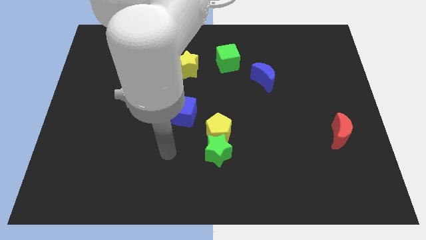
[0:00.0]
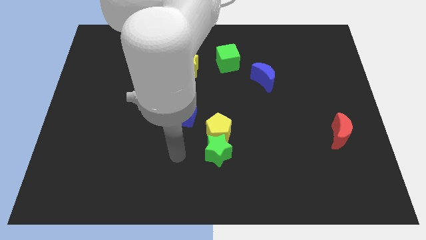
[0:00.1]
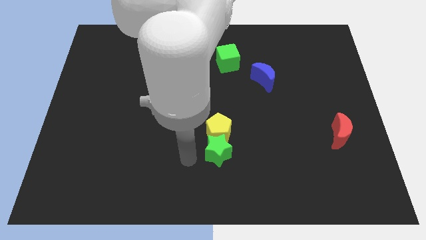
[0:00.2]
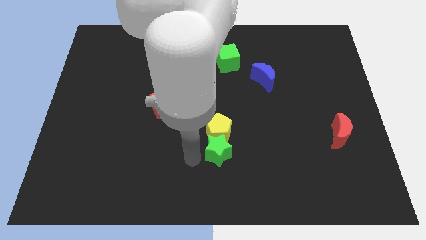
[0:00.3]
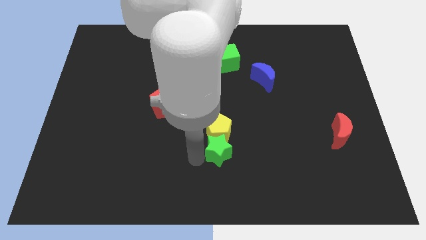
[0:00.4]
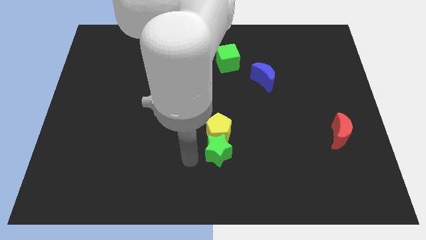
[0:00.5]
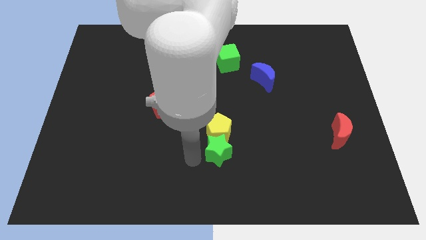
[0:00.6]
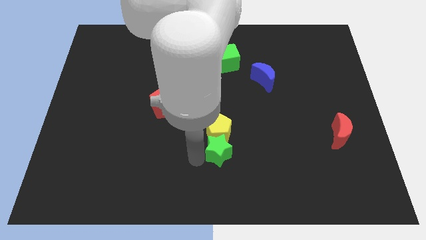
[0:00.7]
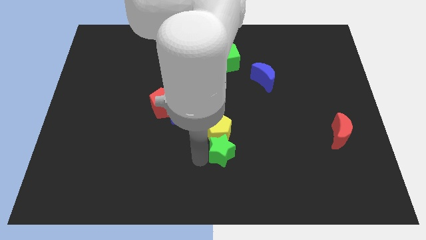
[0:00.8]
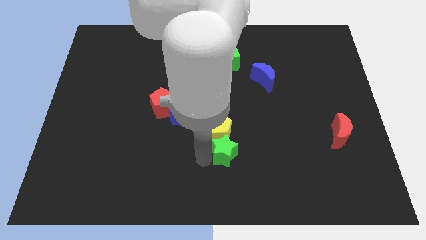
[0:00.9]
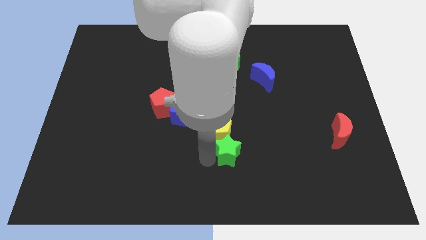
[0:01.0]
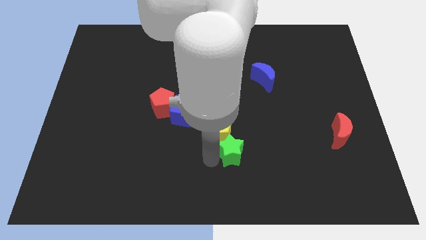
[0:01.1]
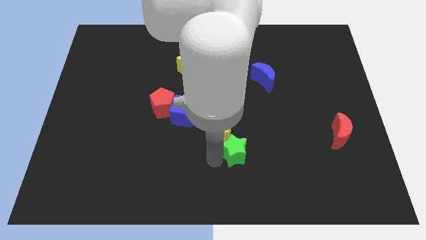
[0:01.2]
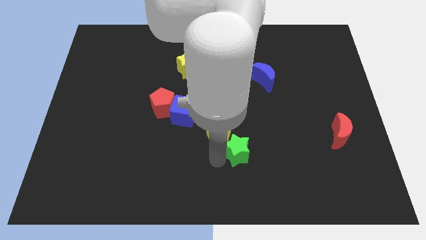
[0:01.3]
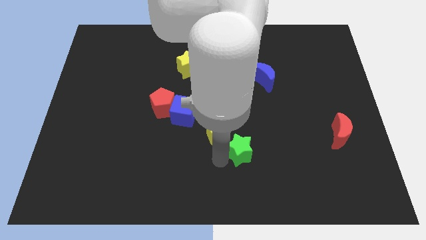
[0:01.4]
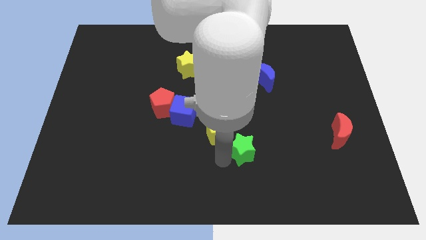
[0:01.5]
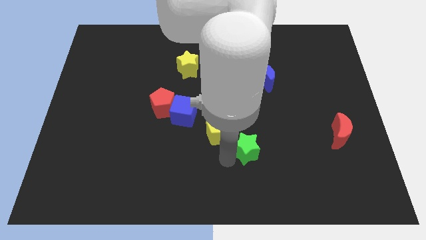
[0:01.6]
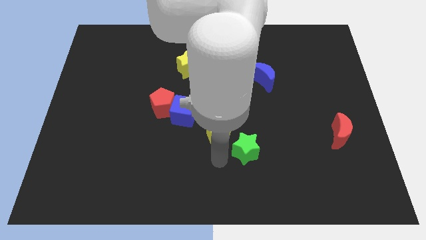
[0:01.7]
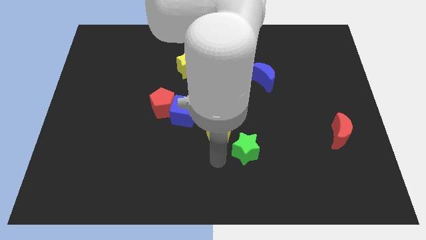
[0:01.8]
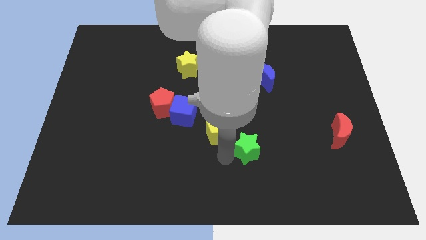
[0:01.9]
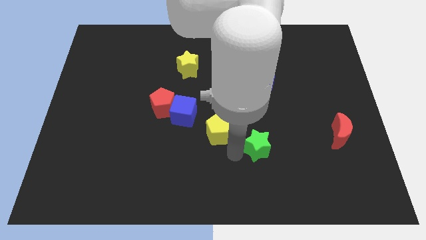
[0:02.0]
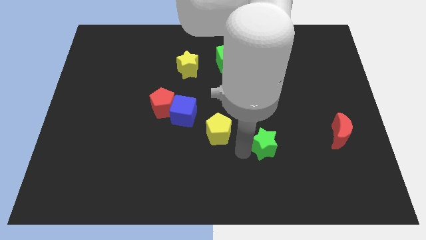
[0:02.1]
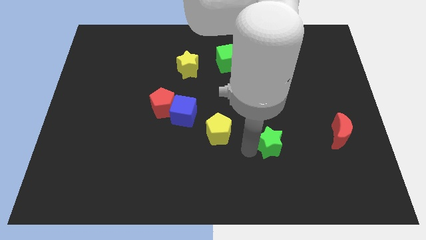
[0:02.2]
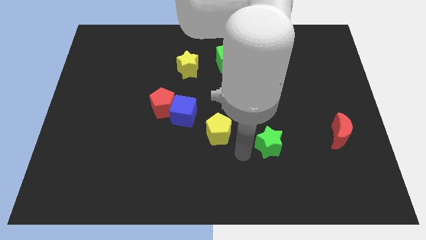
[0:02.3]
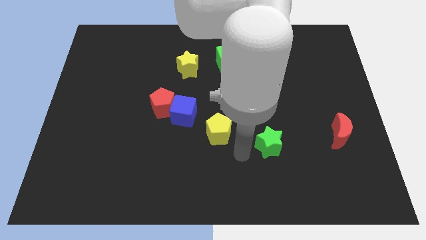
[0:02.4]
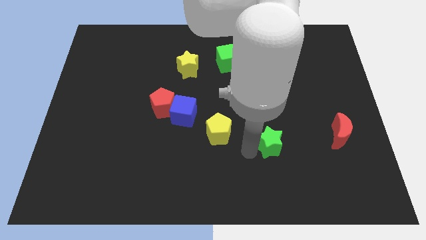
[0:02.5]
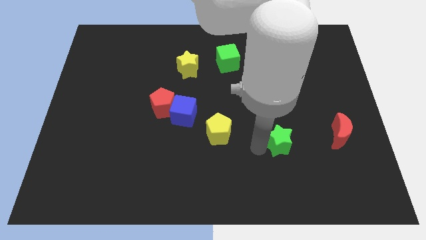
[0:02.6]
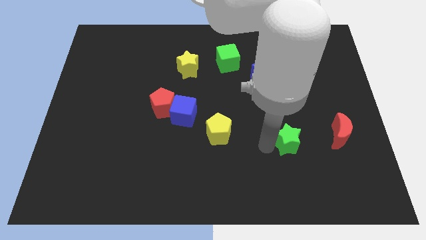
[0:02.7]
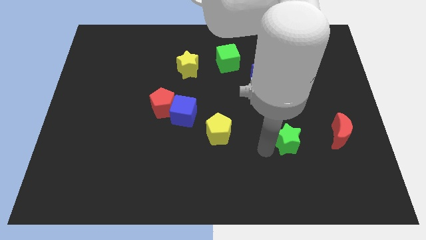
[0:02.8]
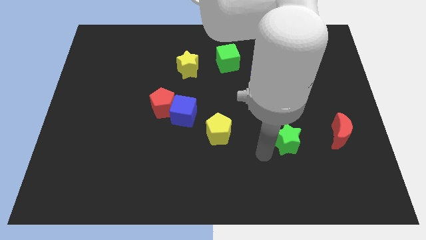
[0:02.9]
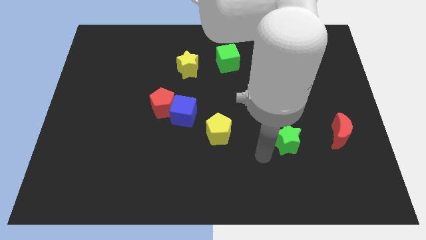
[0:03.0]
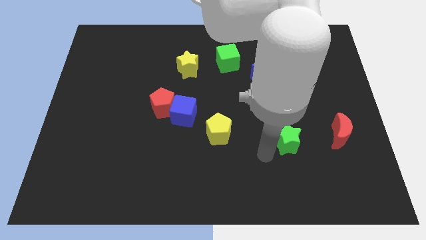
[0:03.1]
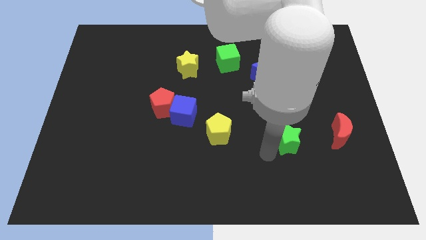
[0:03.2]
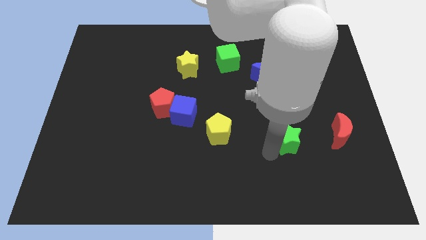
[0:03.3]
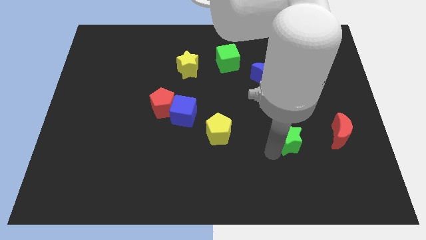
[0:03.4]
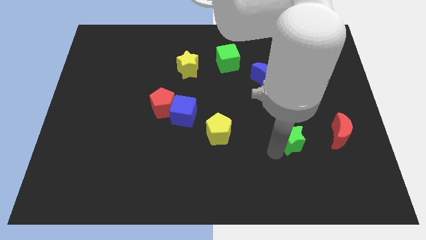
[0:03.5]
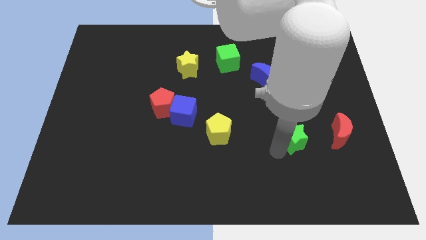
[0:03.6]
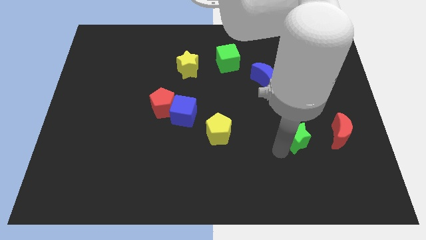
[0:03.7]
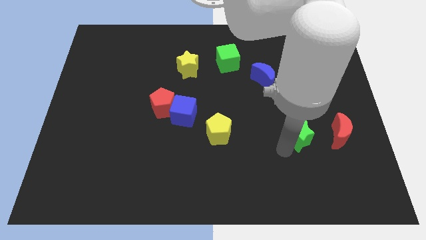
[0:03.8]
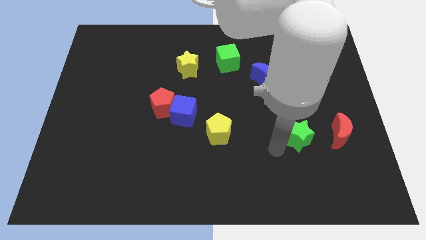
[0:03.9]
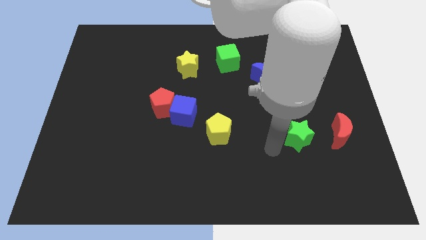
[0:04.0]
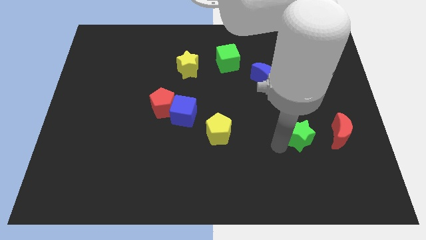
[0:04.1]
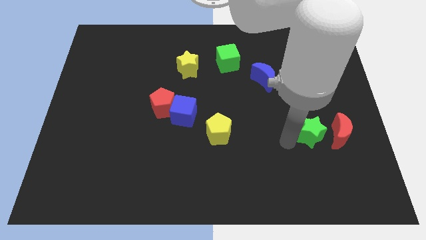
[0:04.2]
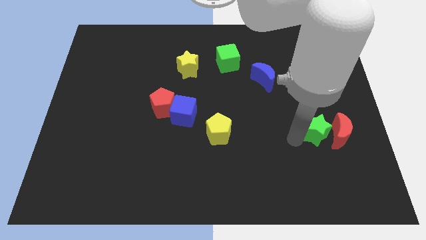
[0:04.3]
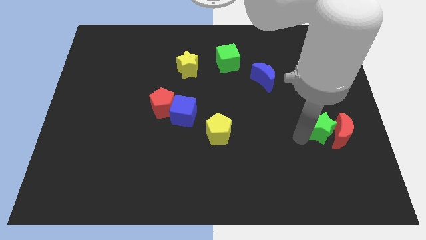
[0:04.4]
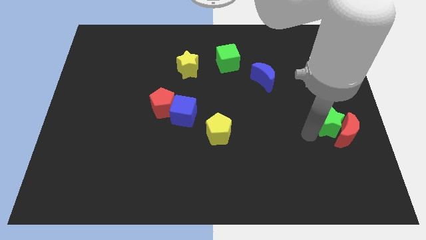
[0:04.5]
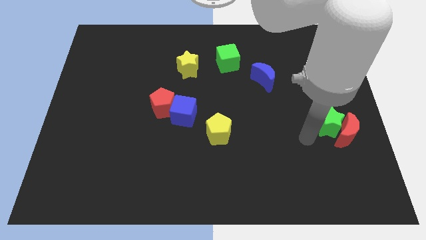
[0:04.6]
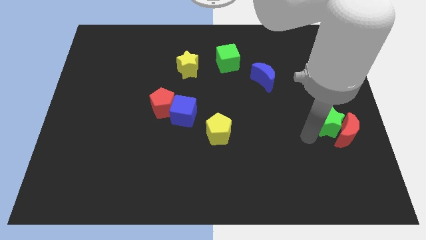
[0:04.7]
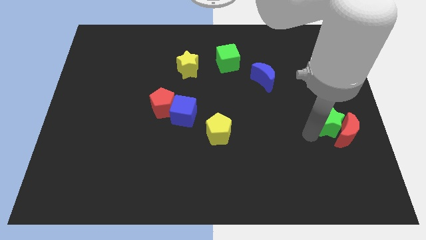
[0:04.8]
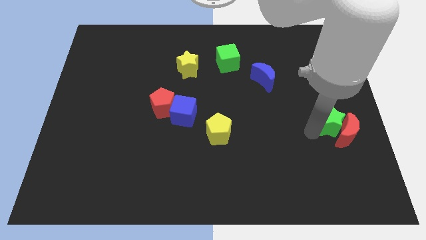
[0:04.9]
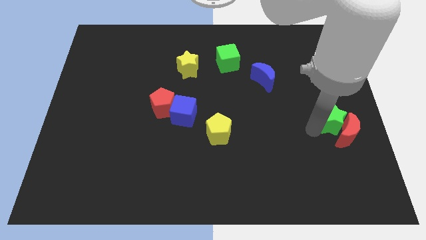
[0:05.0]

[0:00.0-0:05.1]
move the green star to the center right

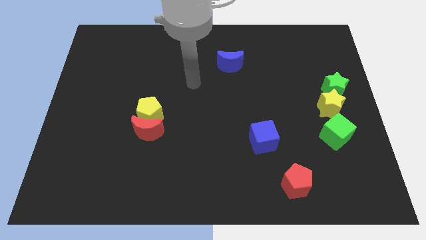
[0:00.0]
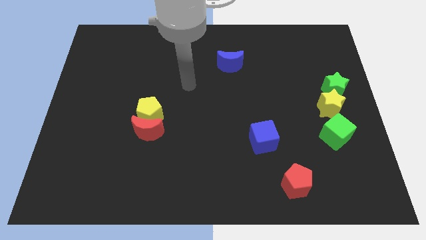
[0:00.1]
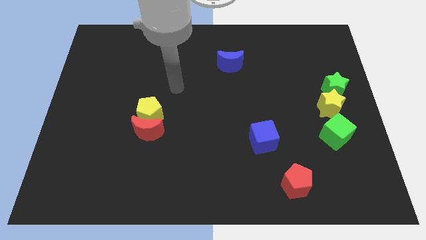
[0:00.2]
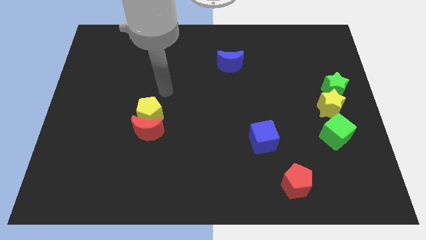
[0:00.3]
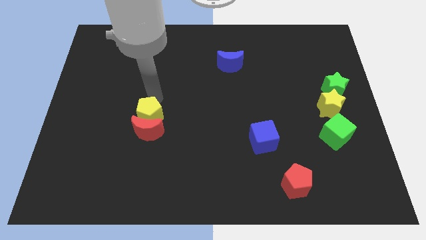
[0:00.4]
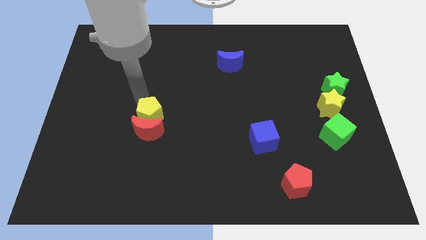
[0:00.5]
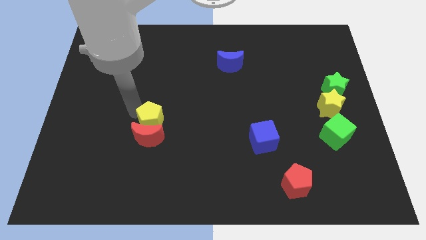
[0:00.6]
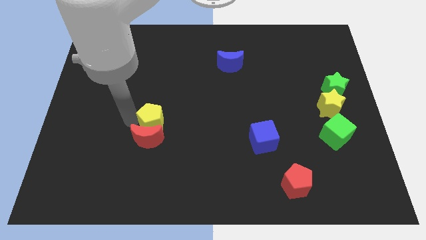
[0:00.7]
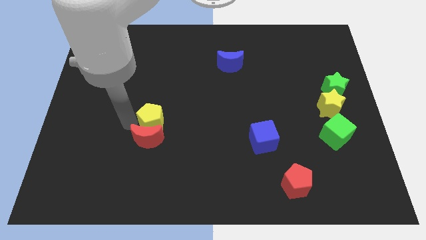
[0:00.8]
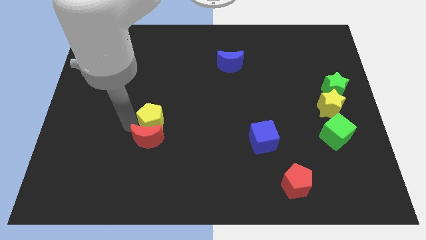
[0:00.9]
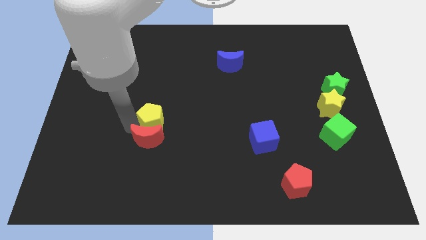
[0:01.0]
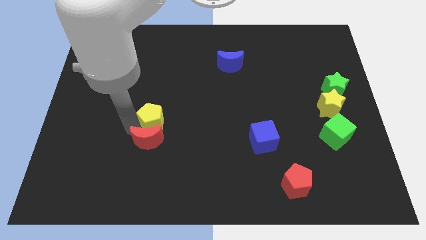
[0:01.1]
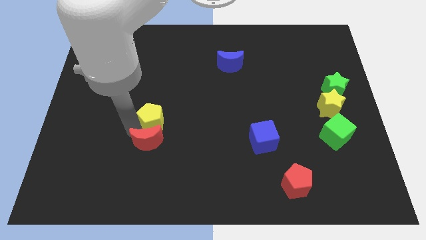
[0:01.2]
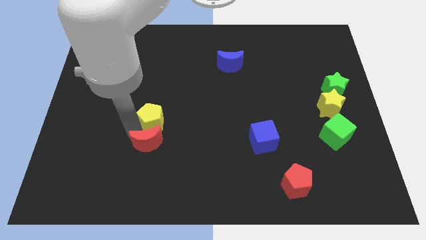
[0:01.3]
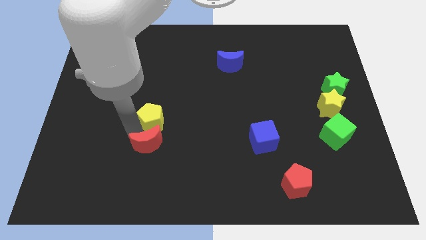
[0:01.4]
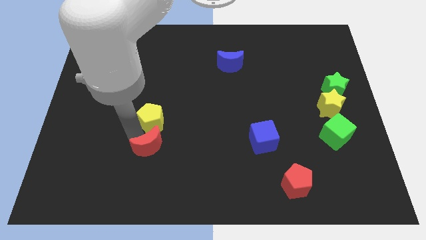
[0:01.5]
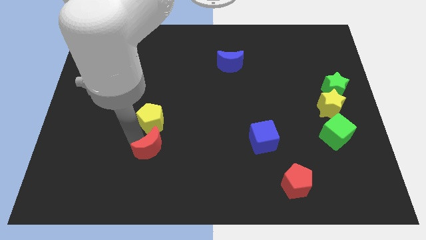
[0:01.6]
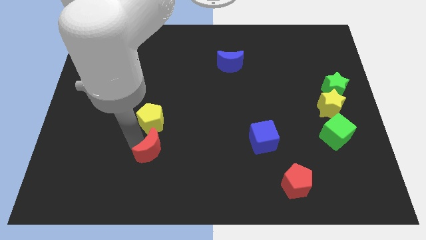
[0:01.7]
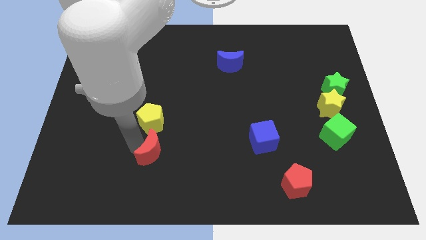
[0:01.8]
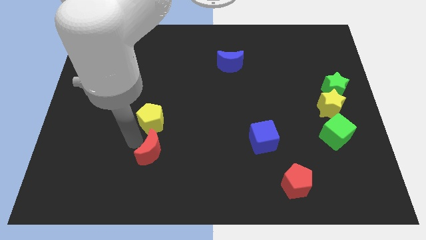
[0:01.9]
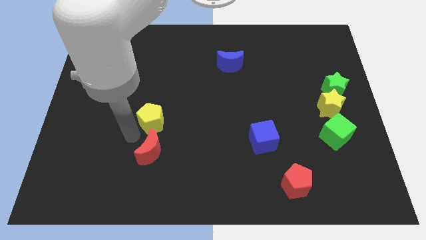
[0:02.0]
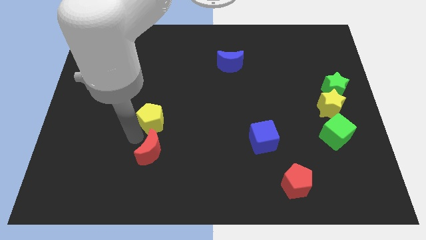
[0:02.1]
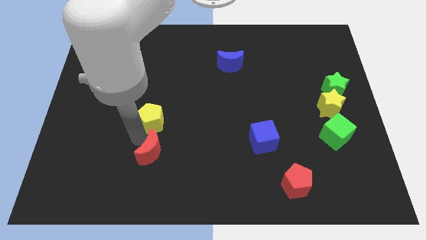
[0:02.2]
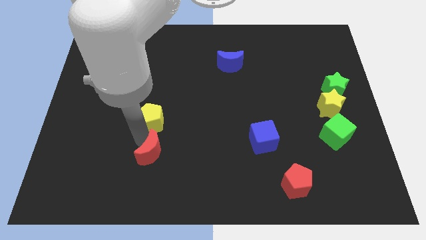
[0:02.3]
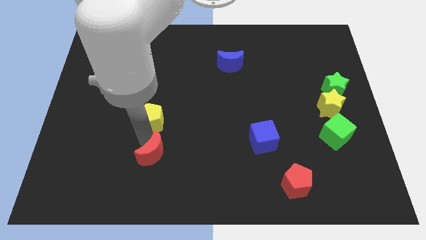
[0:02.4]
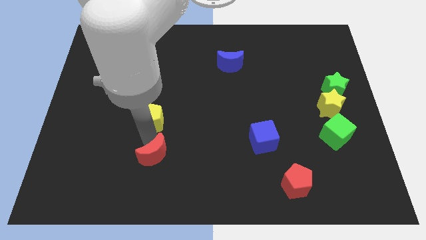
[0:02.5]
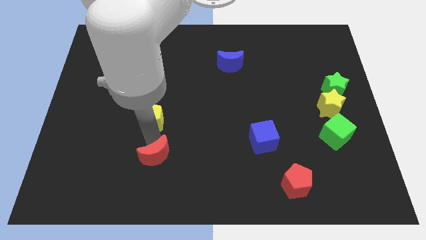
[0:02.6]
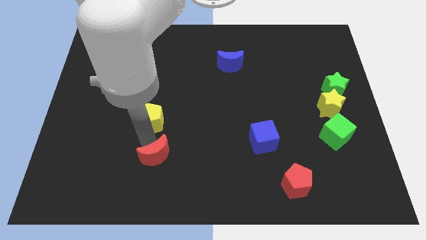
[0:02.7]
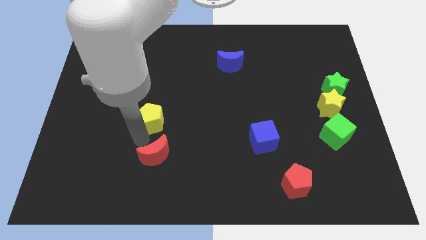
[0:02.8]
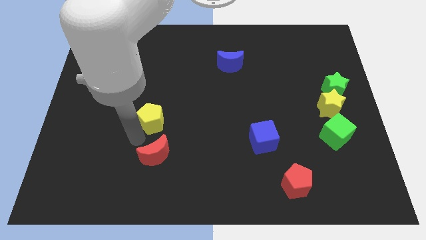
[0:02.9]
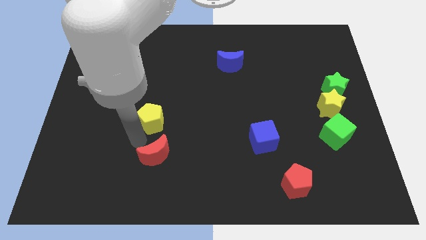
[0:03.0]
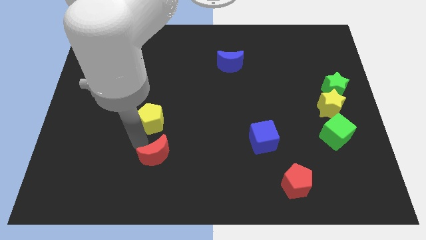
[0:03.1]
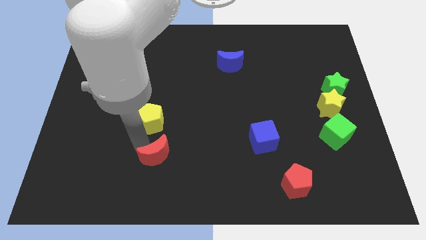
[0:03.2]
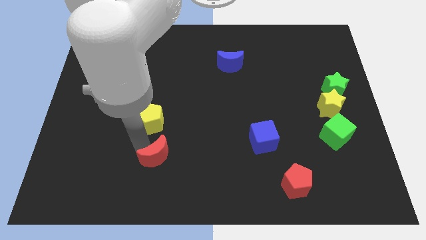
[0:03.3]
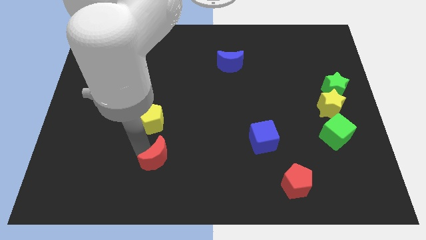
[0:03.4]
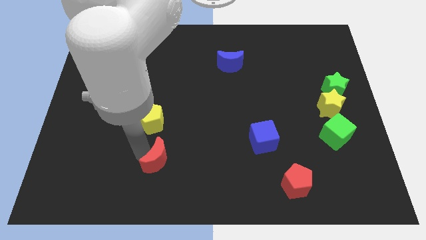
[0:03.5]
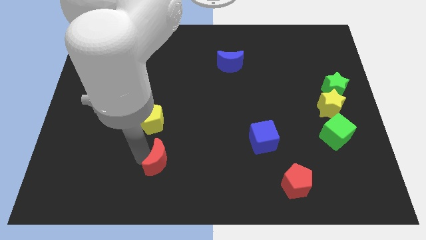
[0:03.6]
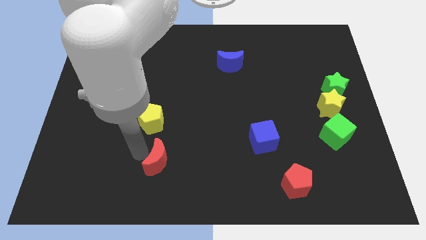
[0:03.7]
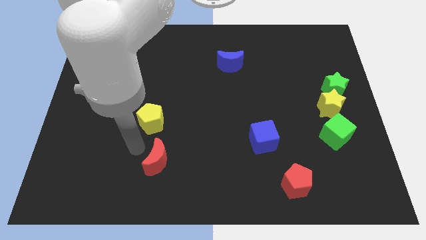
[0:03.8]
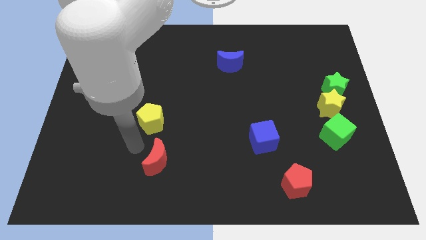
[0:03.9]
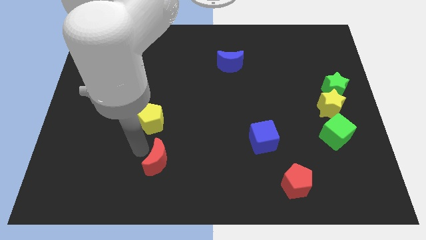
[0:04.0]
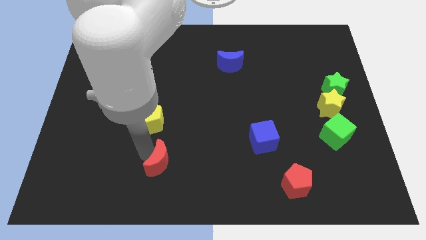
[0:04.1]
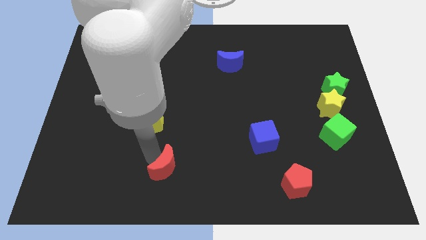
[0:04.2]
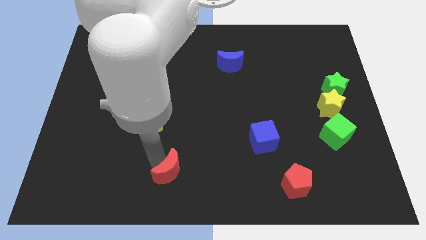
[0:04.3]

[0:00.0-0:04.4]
move the red moon to the bottom side
